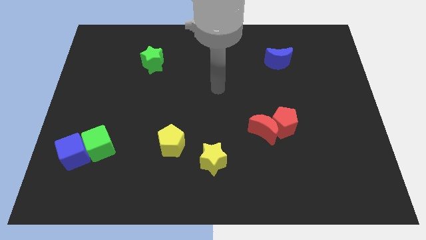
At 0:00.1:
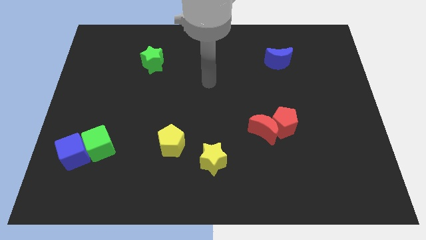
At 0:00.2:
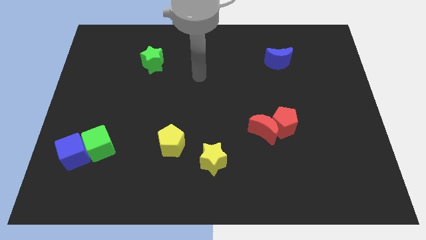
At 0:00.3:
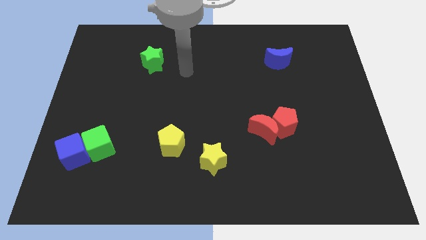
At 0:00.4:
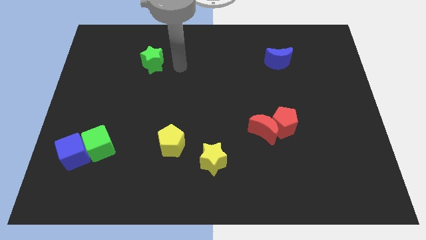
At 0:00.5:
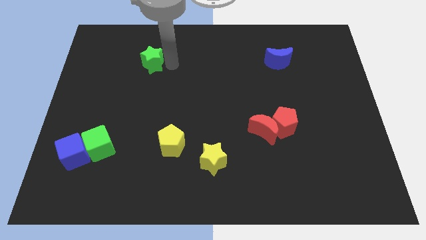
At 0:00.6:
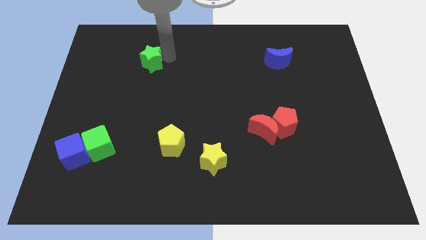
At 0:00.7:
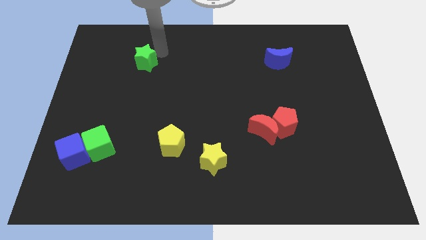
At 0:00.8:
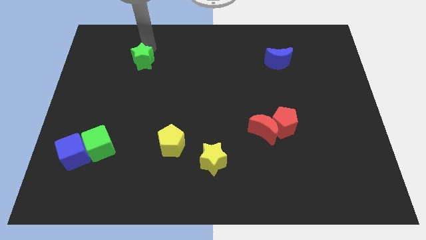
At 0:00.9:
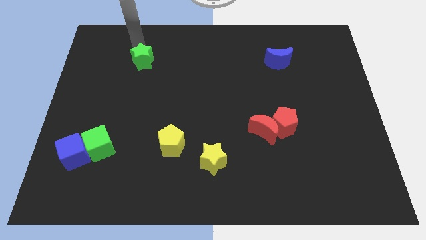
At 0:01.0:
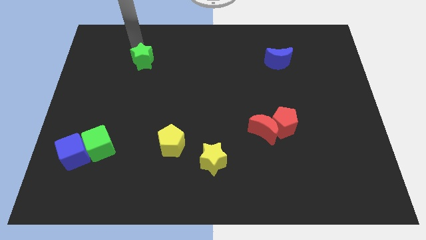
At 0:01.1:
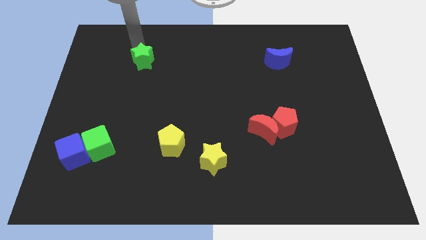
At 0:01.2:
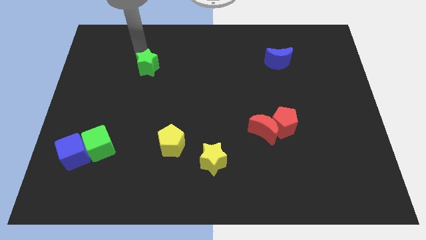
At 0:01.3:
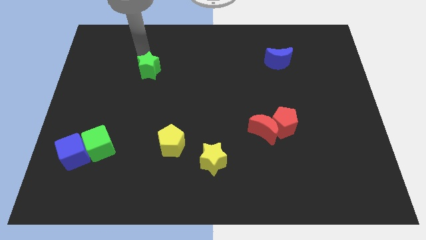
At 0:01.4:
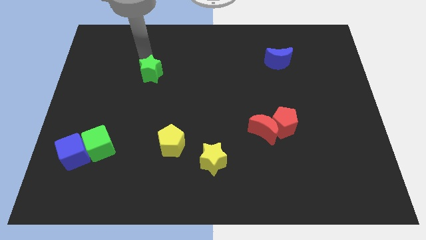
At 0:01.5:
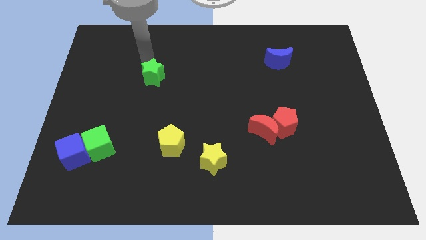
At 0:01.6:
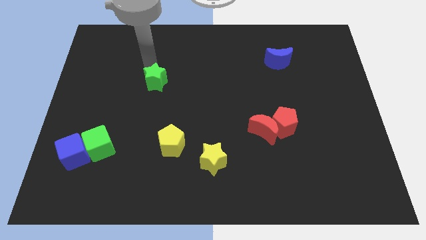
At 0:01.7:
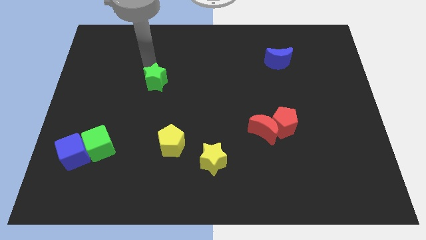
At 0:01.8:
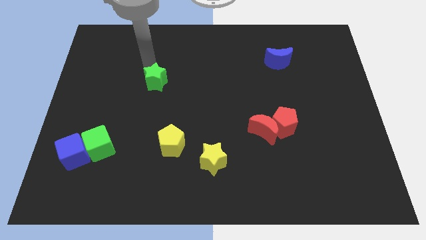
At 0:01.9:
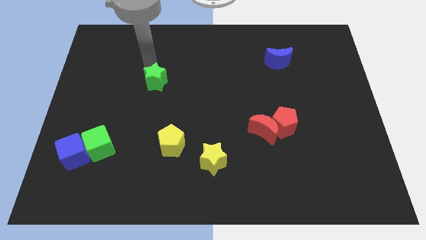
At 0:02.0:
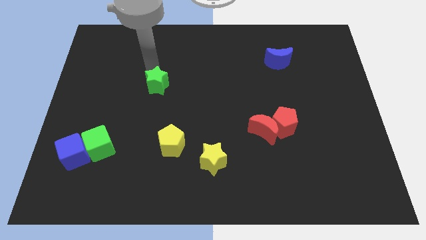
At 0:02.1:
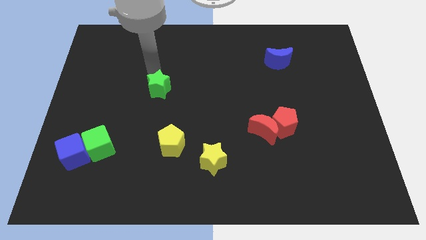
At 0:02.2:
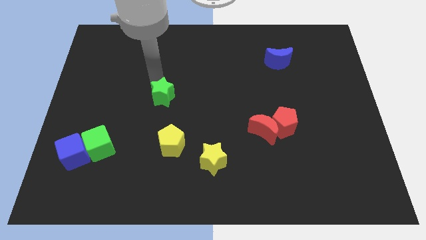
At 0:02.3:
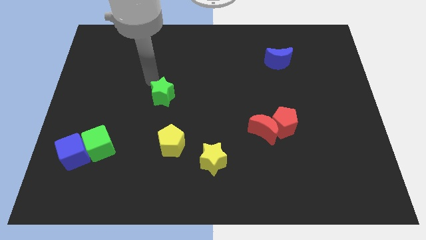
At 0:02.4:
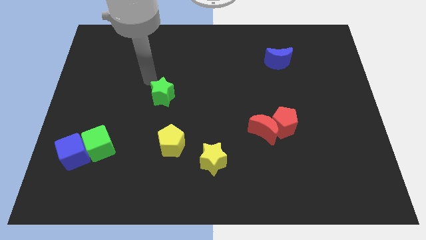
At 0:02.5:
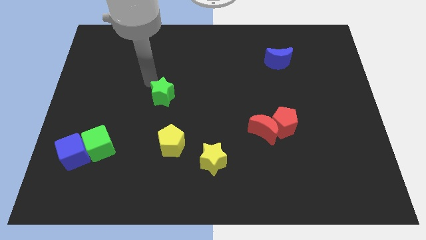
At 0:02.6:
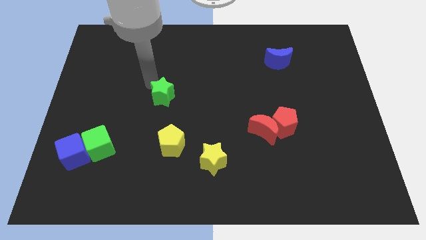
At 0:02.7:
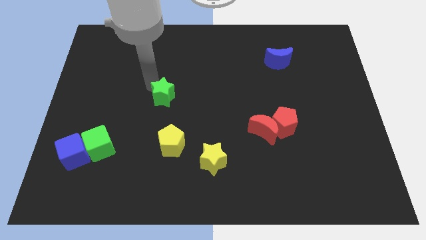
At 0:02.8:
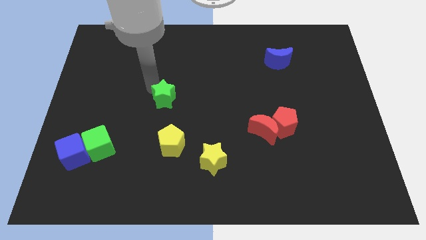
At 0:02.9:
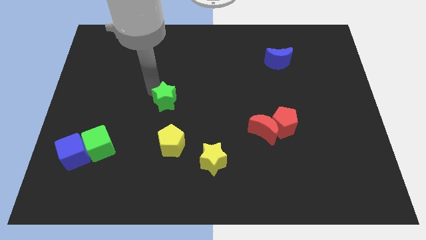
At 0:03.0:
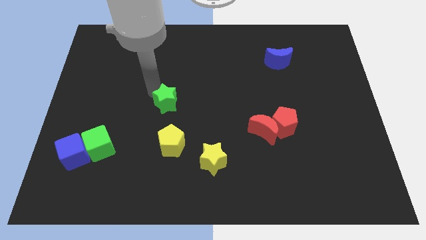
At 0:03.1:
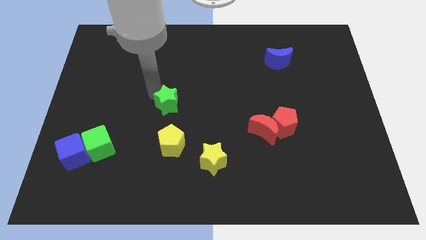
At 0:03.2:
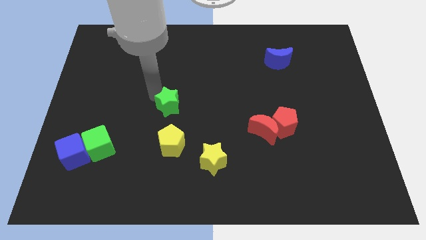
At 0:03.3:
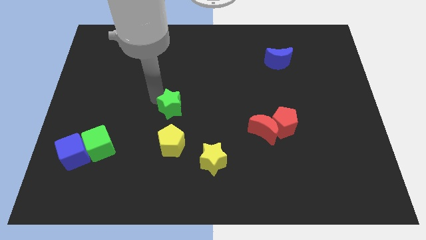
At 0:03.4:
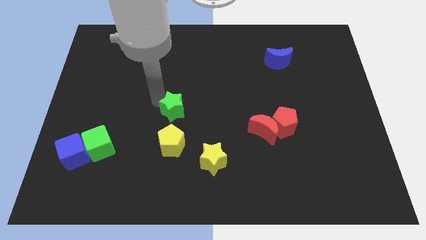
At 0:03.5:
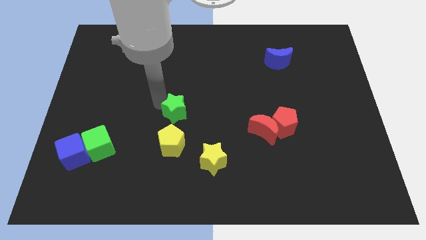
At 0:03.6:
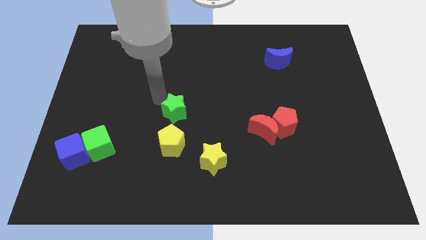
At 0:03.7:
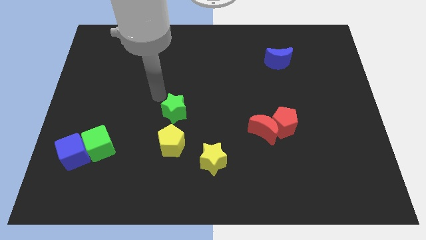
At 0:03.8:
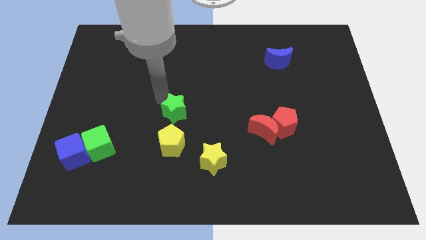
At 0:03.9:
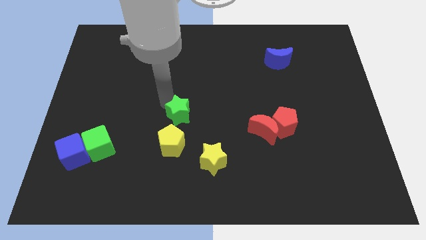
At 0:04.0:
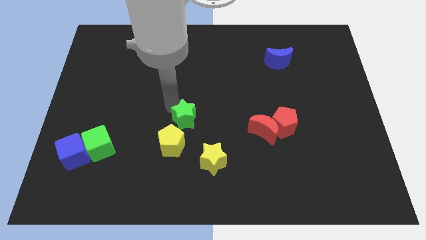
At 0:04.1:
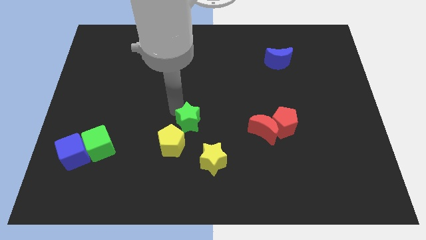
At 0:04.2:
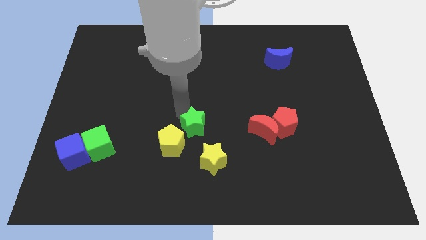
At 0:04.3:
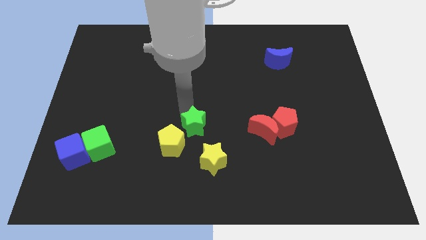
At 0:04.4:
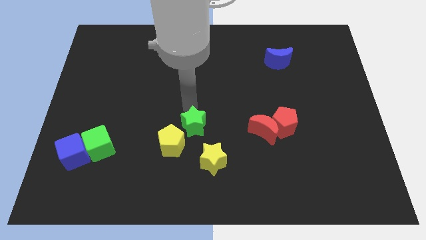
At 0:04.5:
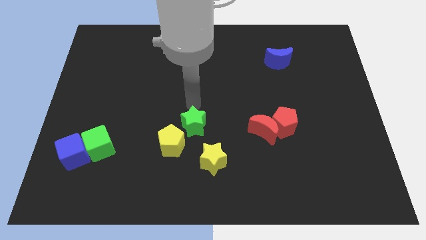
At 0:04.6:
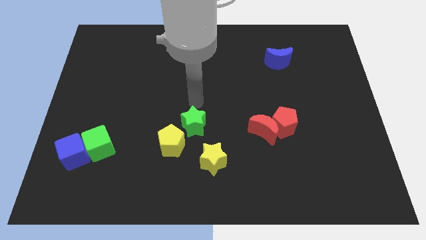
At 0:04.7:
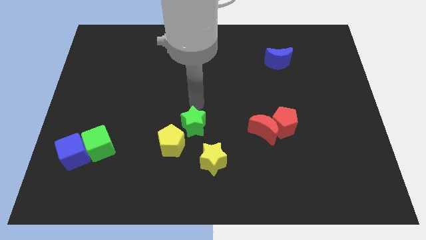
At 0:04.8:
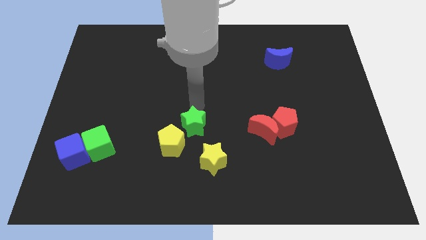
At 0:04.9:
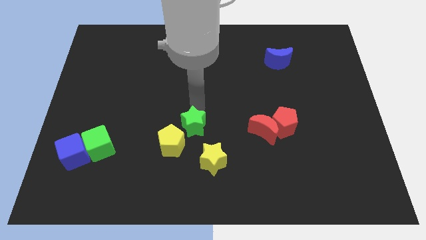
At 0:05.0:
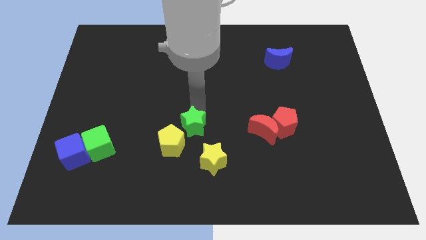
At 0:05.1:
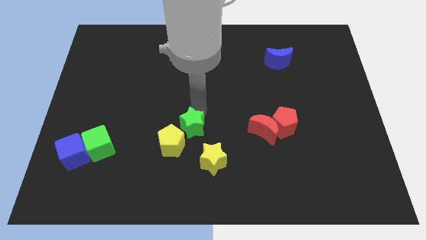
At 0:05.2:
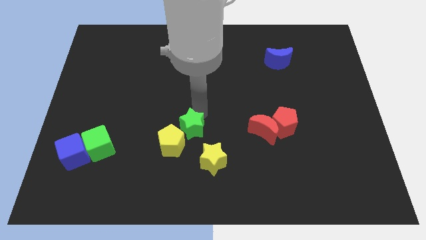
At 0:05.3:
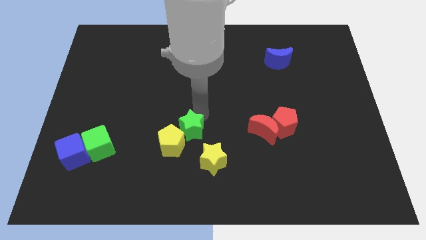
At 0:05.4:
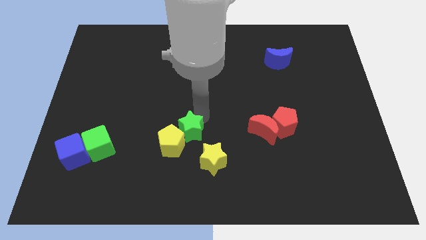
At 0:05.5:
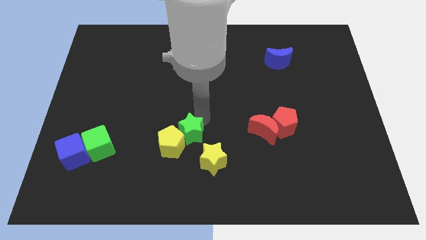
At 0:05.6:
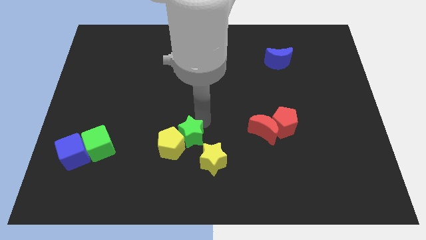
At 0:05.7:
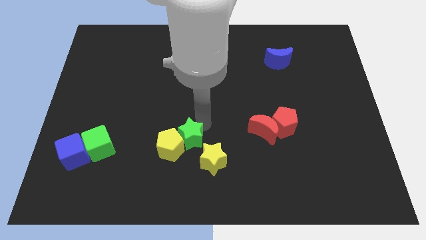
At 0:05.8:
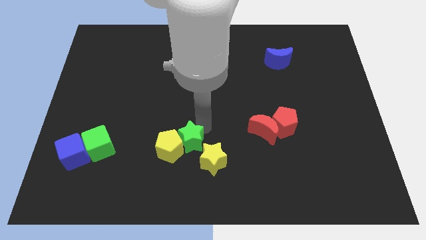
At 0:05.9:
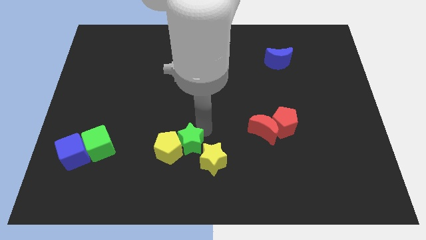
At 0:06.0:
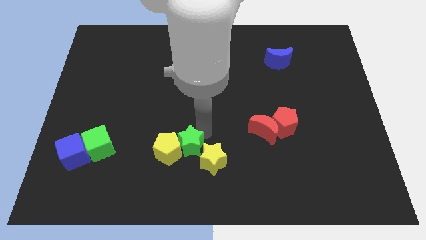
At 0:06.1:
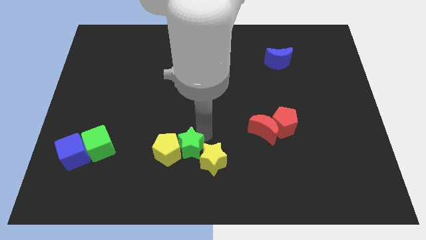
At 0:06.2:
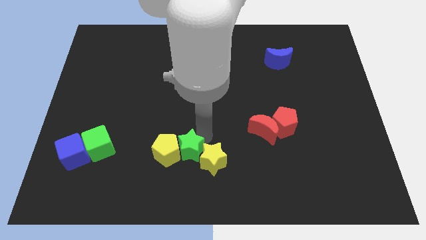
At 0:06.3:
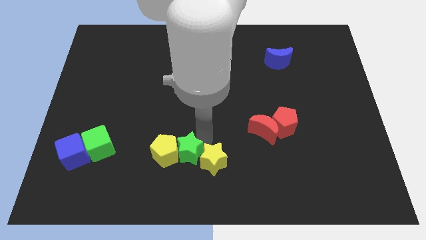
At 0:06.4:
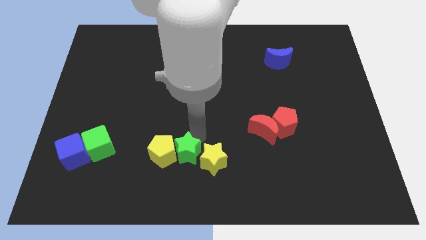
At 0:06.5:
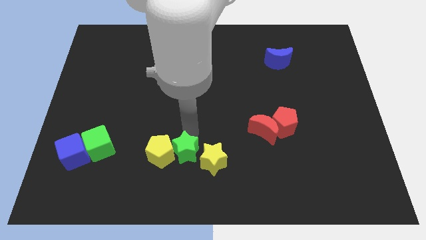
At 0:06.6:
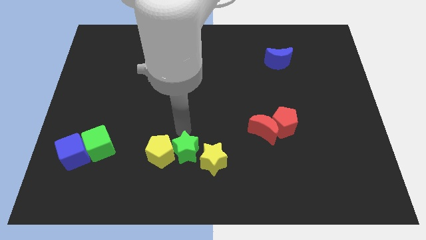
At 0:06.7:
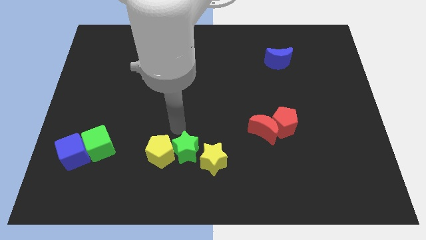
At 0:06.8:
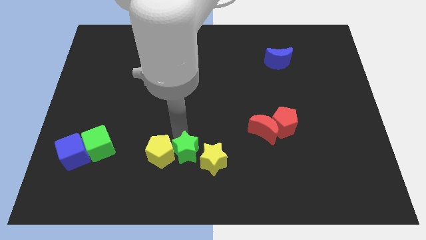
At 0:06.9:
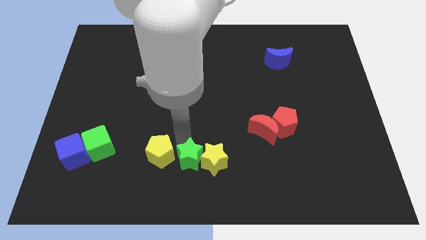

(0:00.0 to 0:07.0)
push the green star to the bottom
